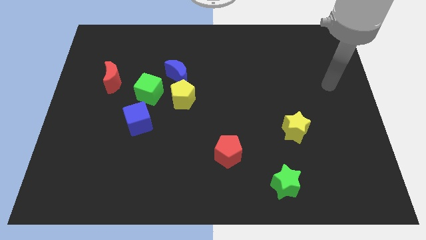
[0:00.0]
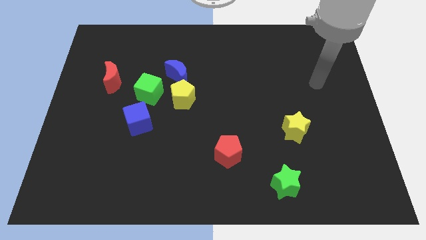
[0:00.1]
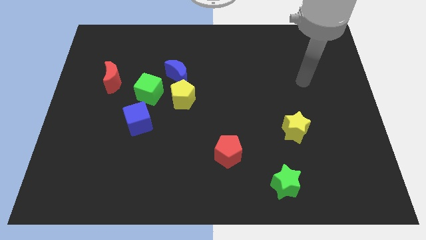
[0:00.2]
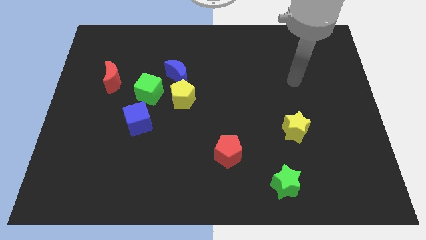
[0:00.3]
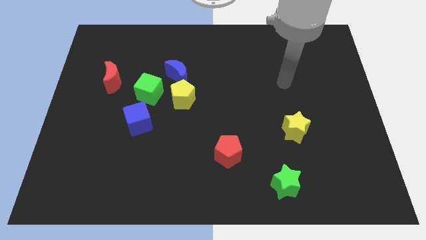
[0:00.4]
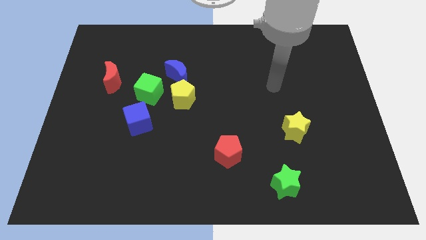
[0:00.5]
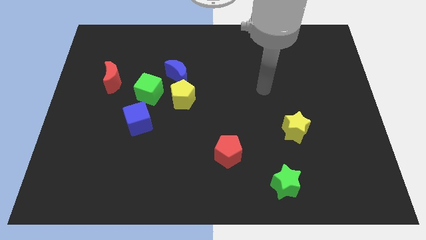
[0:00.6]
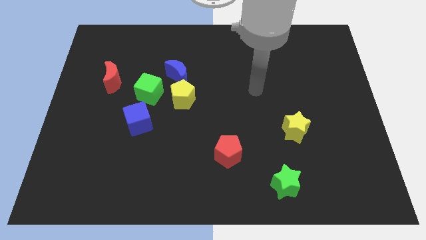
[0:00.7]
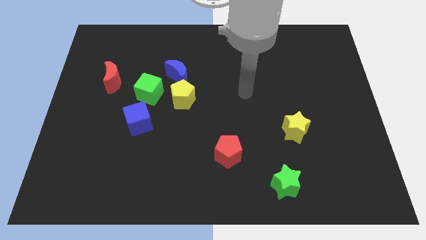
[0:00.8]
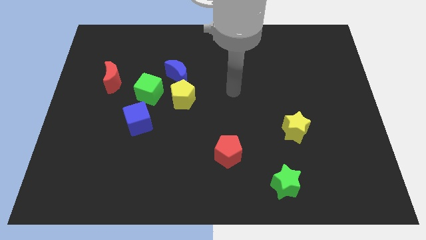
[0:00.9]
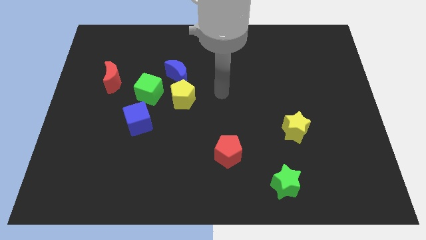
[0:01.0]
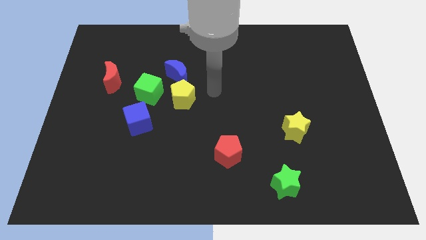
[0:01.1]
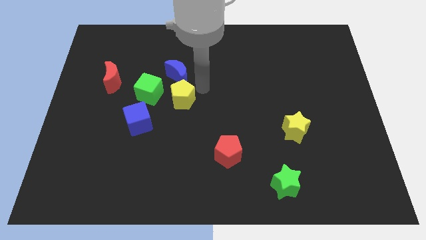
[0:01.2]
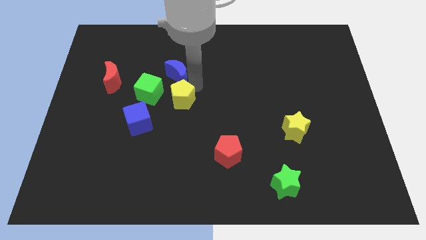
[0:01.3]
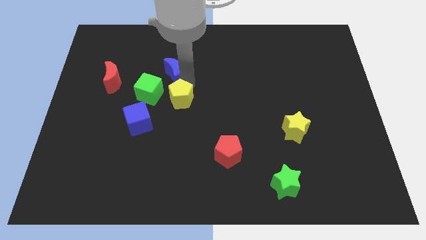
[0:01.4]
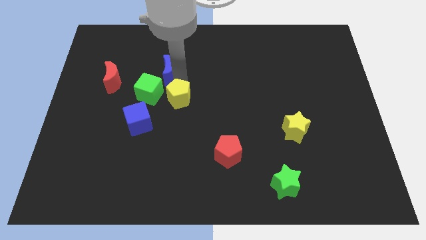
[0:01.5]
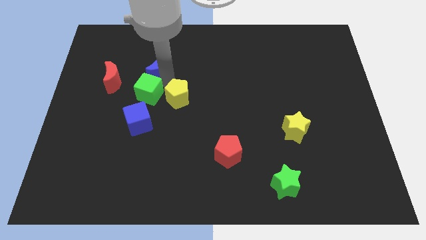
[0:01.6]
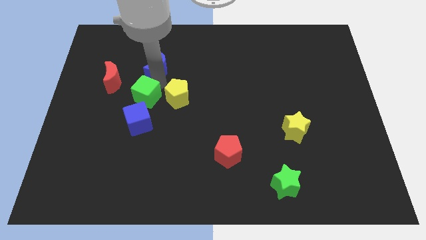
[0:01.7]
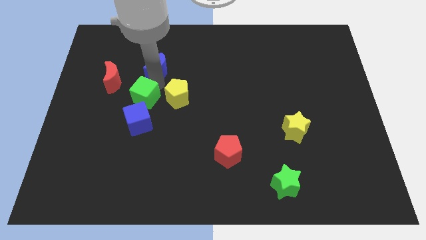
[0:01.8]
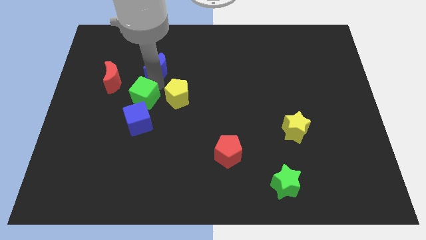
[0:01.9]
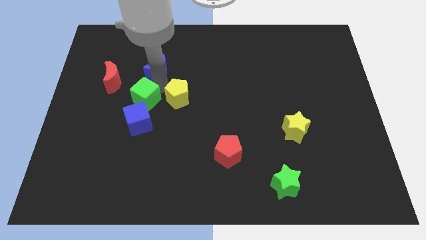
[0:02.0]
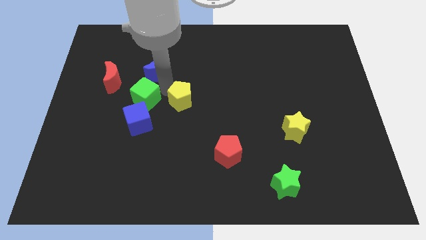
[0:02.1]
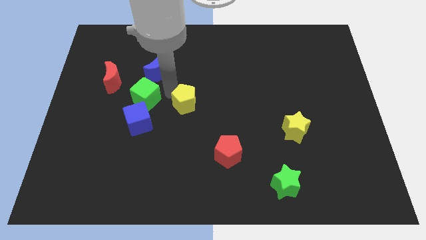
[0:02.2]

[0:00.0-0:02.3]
move the yellow pentagon away from the blue moon and green cube

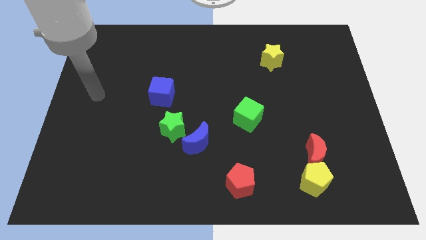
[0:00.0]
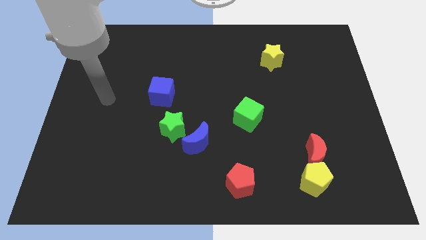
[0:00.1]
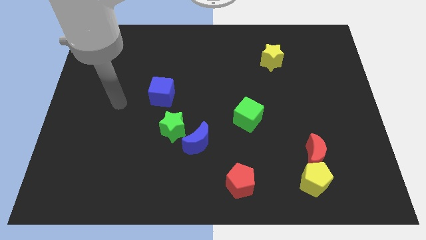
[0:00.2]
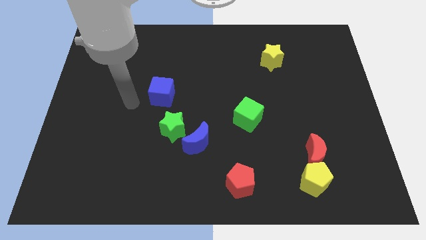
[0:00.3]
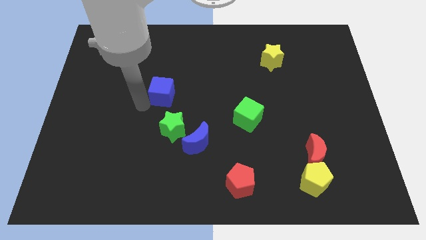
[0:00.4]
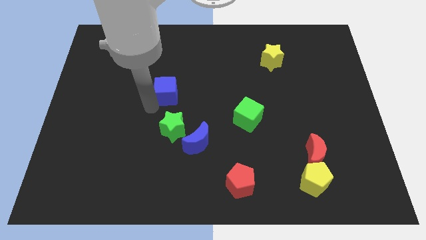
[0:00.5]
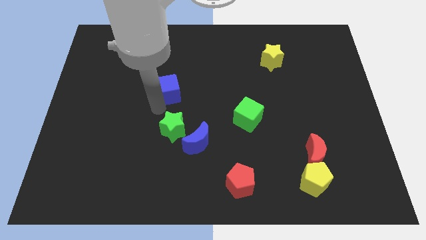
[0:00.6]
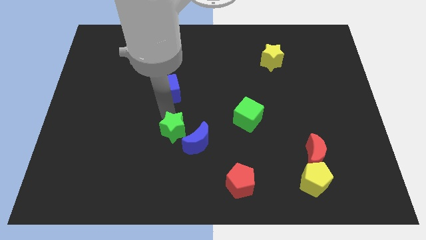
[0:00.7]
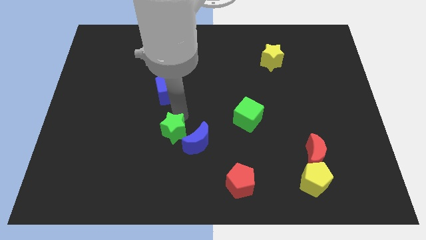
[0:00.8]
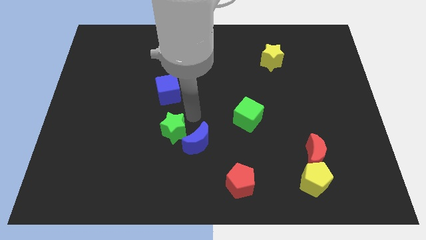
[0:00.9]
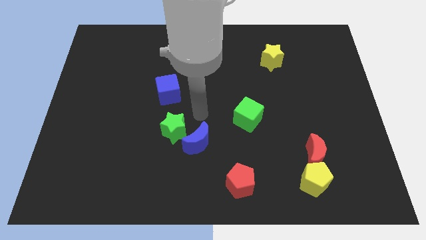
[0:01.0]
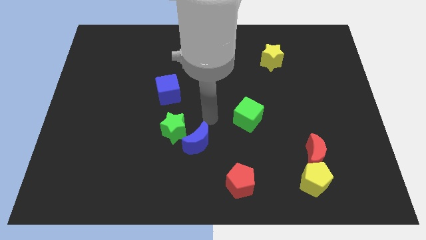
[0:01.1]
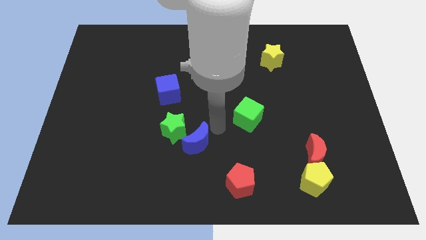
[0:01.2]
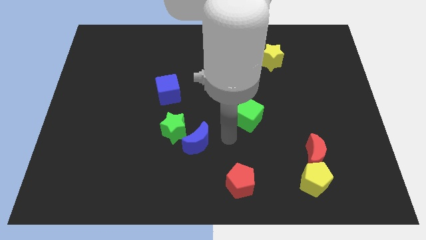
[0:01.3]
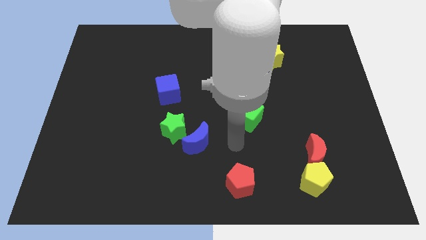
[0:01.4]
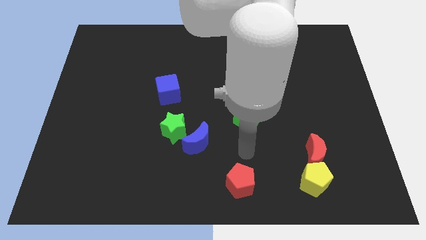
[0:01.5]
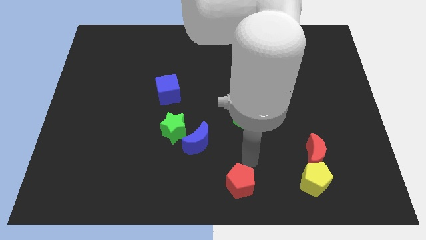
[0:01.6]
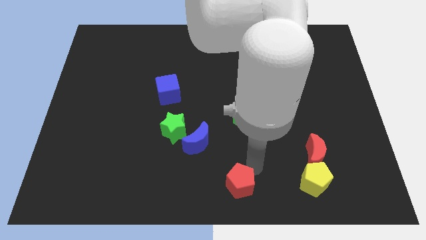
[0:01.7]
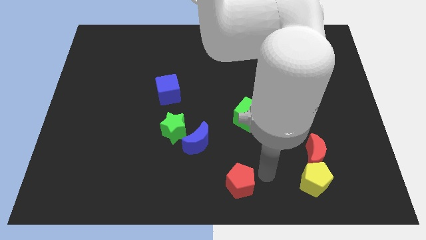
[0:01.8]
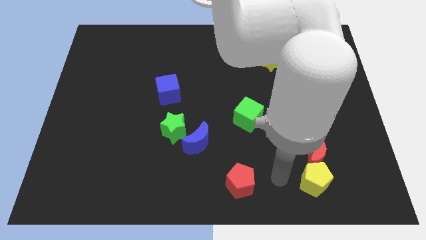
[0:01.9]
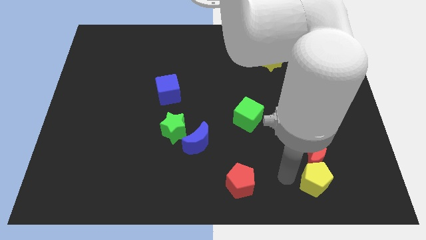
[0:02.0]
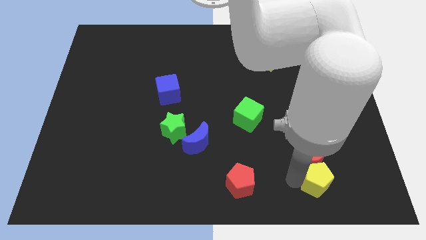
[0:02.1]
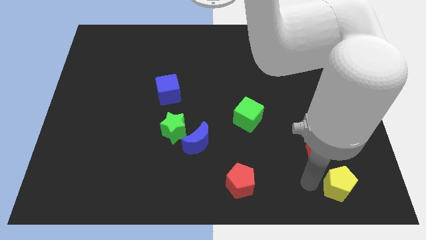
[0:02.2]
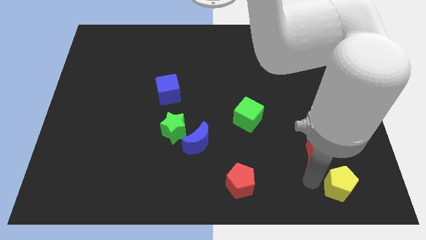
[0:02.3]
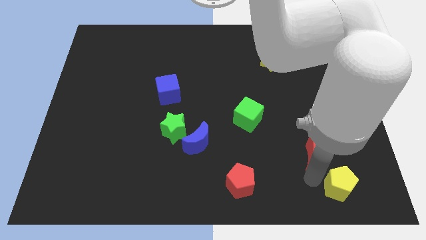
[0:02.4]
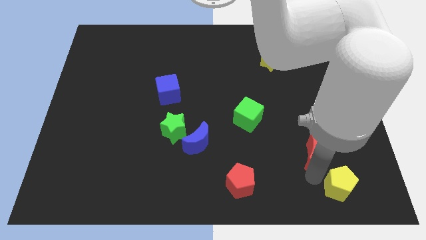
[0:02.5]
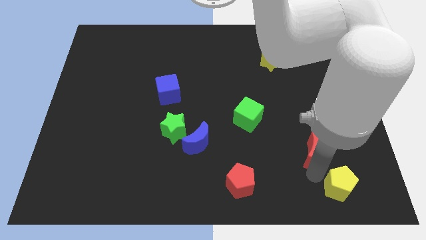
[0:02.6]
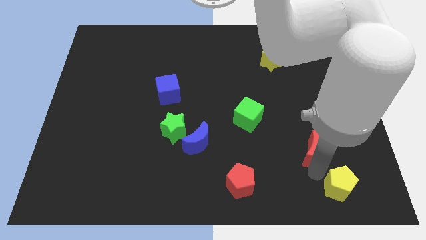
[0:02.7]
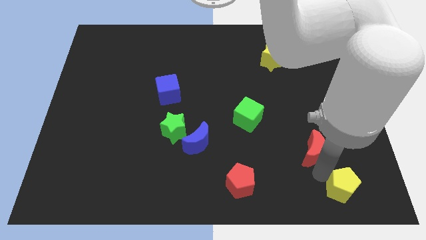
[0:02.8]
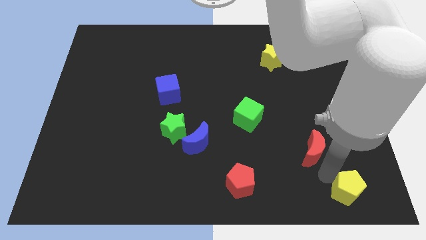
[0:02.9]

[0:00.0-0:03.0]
move the red moon away from the yellow pentagon

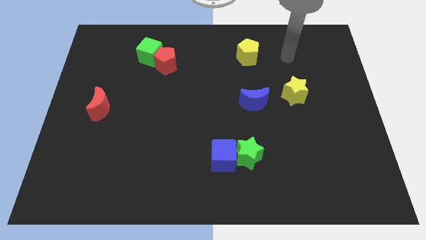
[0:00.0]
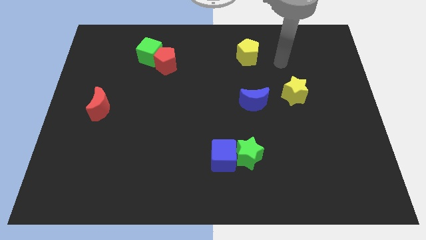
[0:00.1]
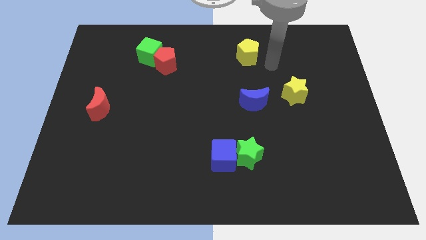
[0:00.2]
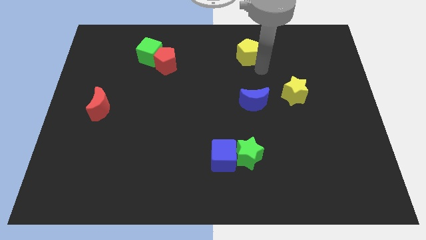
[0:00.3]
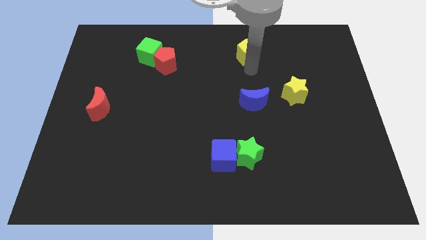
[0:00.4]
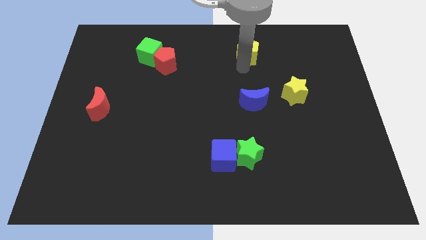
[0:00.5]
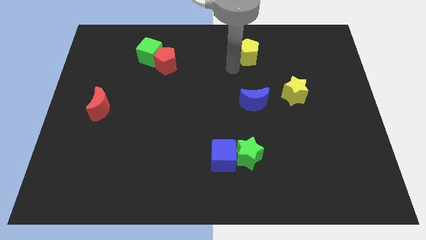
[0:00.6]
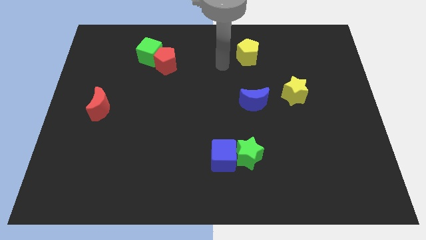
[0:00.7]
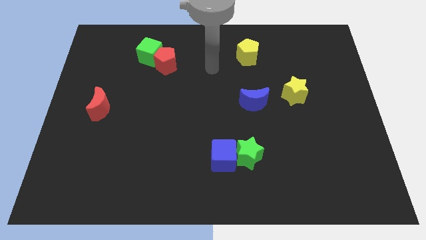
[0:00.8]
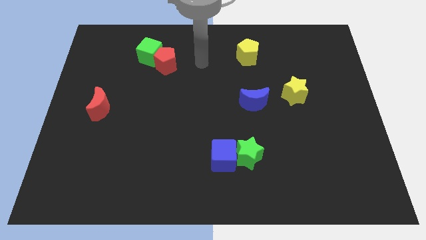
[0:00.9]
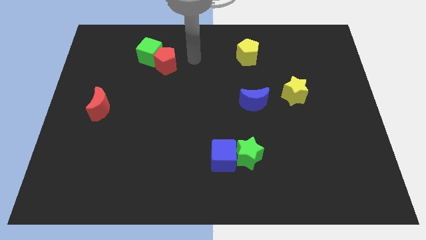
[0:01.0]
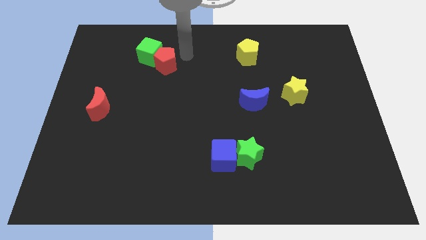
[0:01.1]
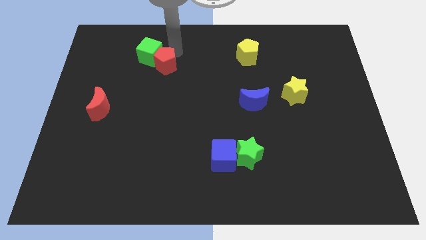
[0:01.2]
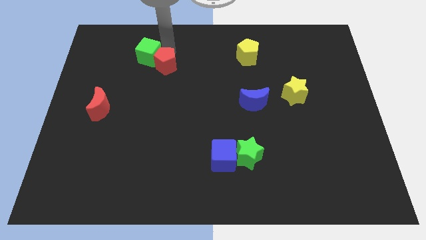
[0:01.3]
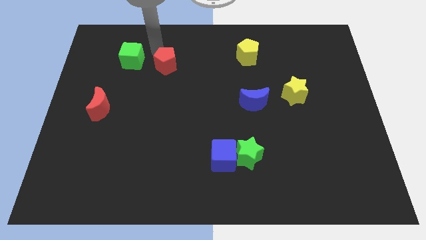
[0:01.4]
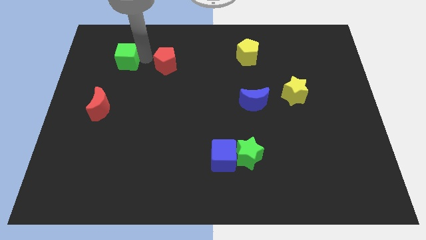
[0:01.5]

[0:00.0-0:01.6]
pull the red pentagon apart from the green cube

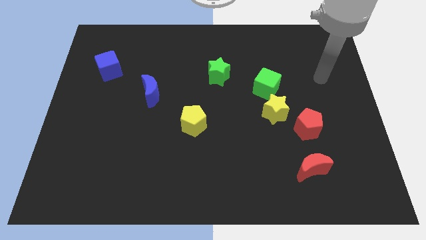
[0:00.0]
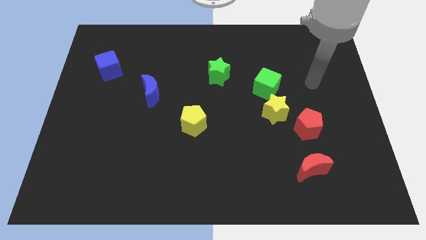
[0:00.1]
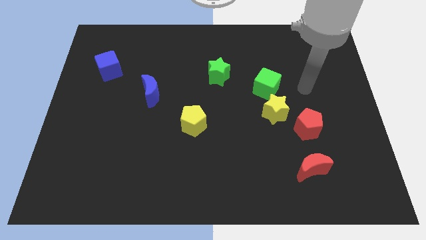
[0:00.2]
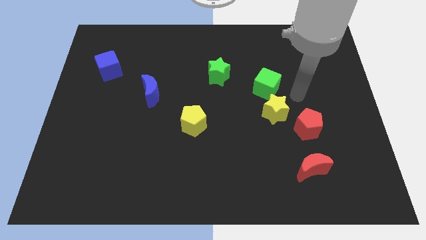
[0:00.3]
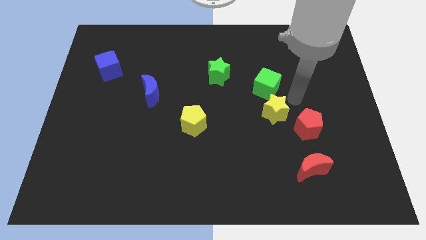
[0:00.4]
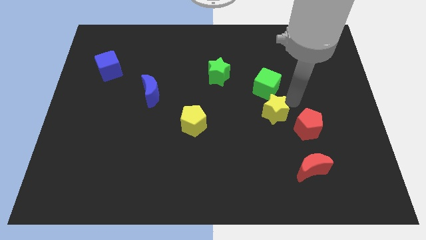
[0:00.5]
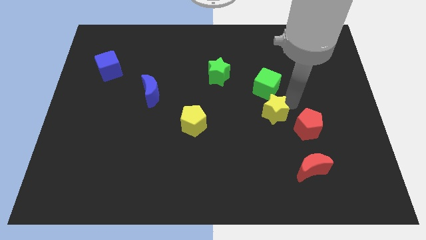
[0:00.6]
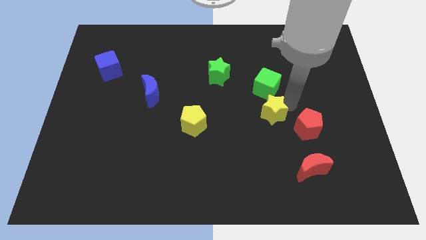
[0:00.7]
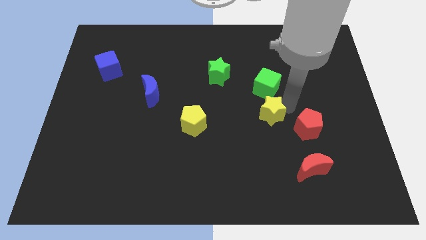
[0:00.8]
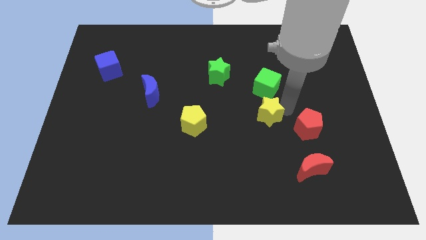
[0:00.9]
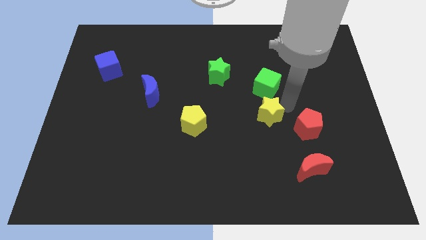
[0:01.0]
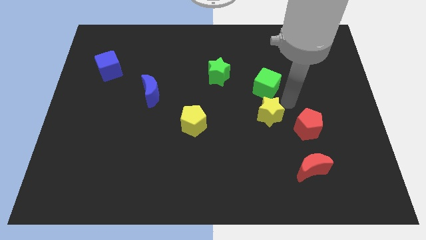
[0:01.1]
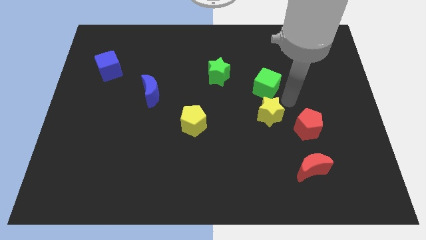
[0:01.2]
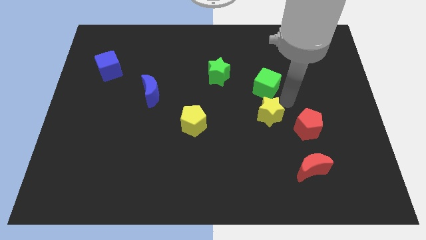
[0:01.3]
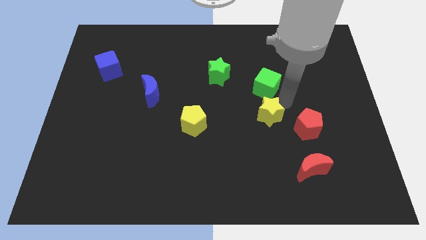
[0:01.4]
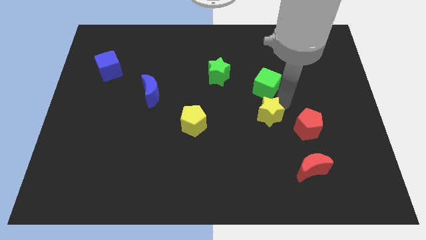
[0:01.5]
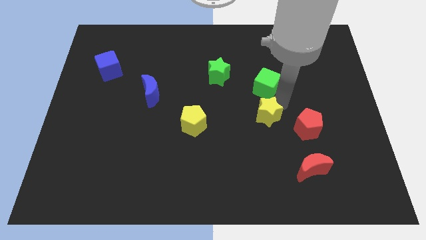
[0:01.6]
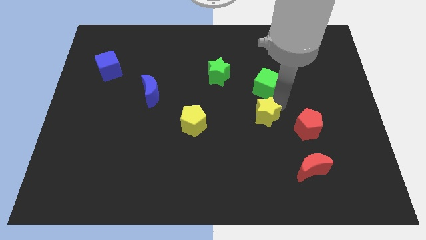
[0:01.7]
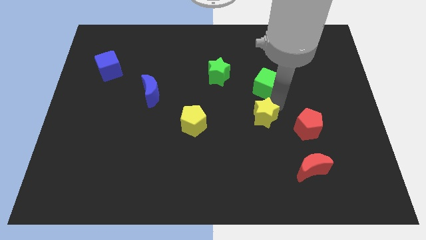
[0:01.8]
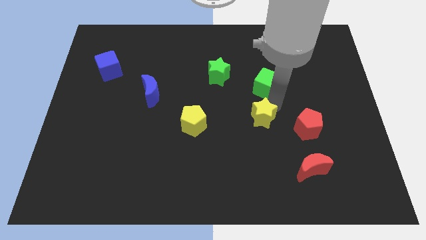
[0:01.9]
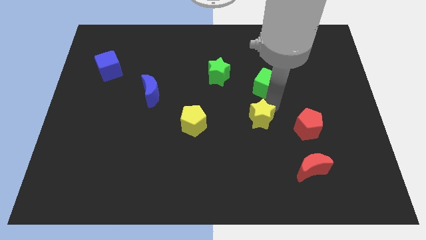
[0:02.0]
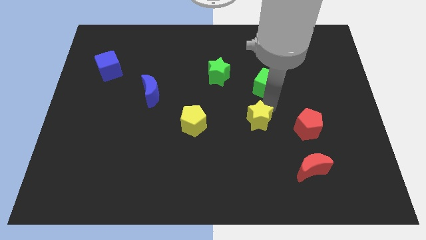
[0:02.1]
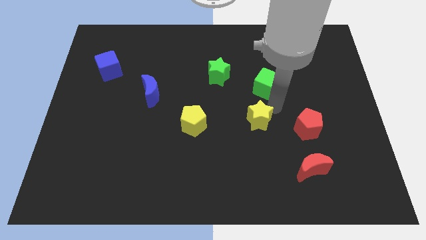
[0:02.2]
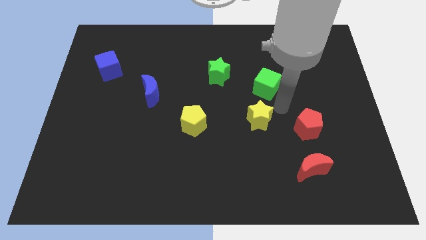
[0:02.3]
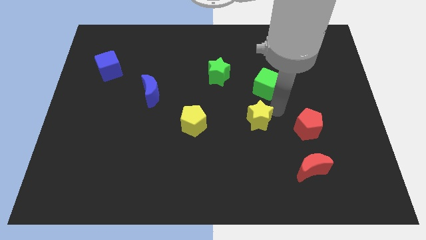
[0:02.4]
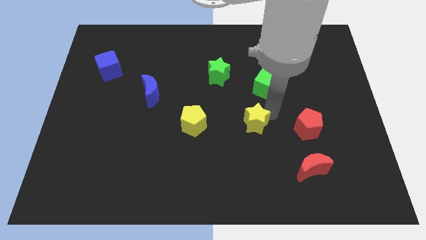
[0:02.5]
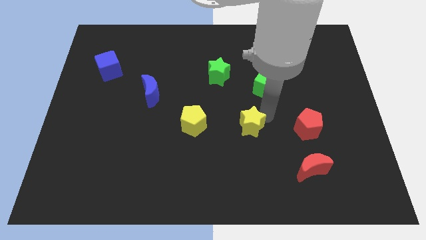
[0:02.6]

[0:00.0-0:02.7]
move the yellow star away from the red pentagon and green cube
